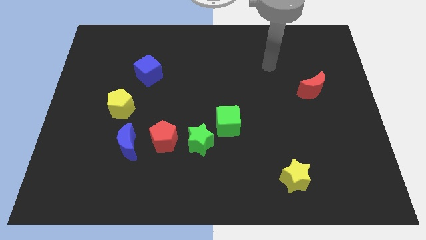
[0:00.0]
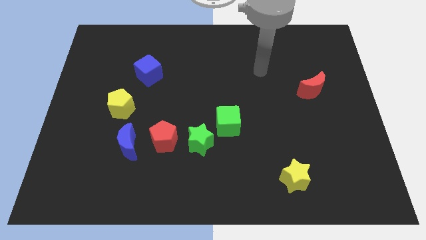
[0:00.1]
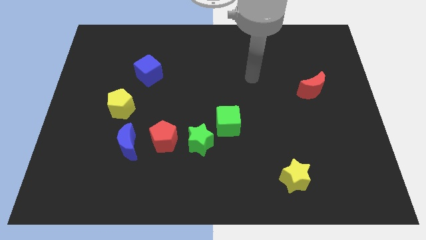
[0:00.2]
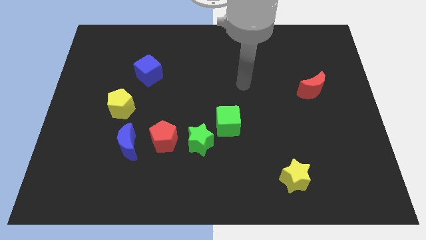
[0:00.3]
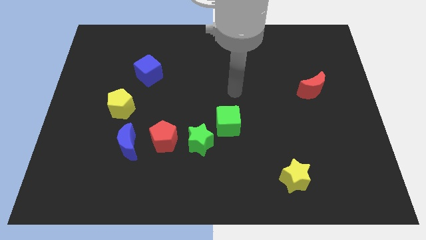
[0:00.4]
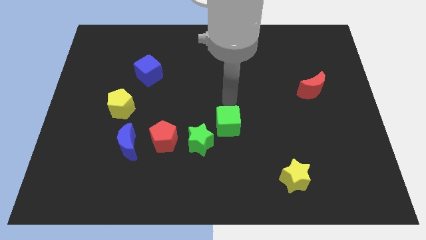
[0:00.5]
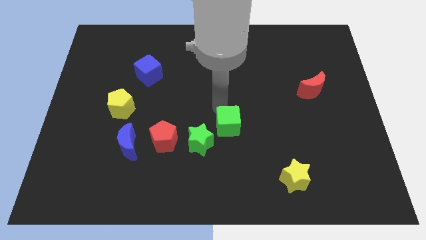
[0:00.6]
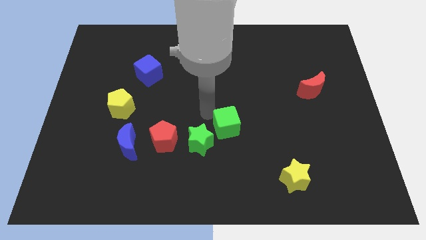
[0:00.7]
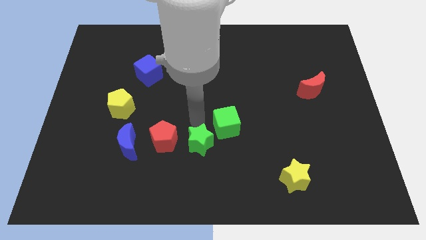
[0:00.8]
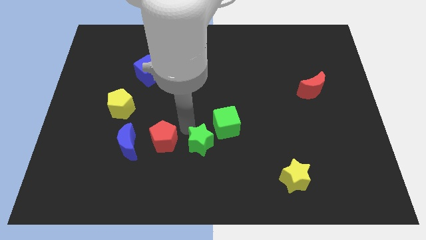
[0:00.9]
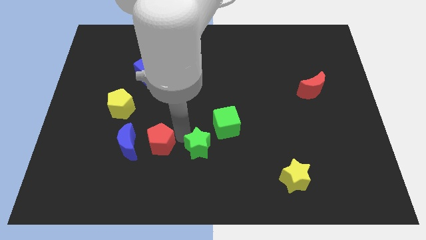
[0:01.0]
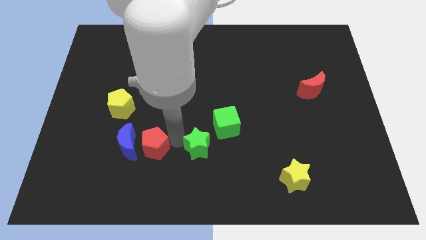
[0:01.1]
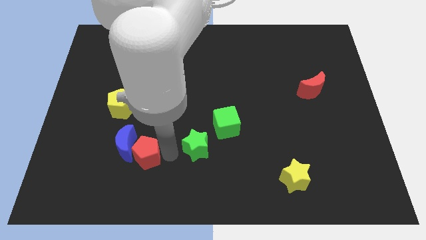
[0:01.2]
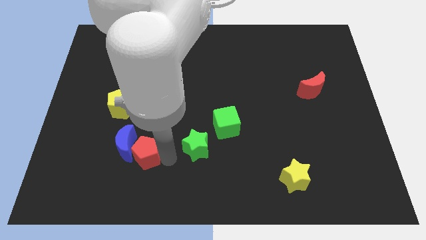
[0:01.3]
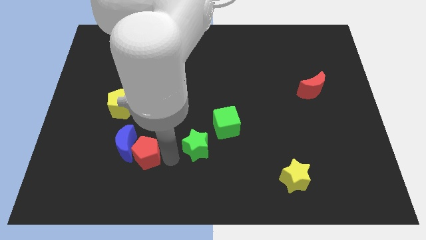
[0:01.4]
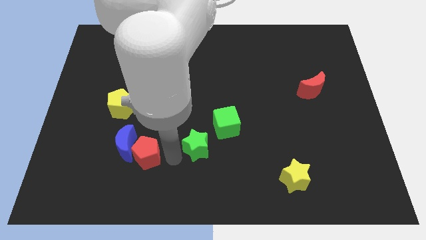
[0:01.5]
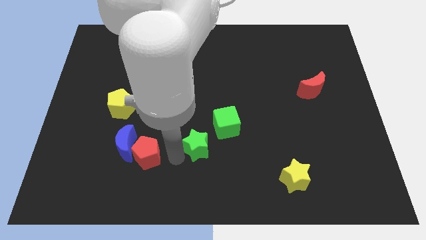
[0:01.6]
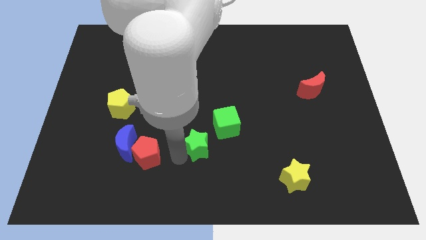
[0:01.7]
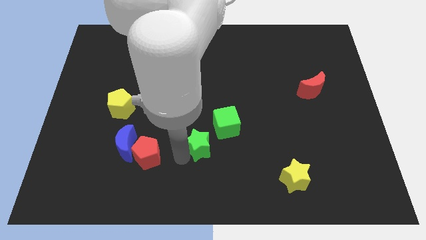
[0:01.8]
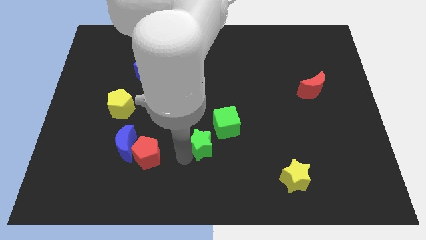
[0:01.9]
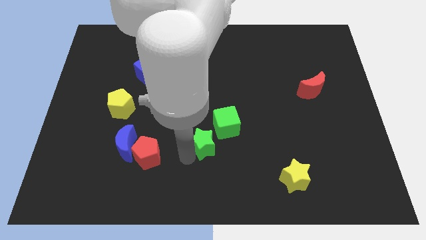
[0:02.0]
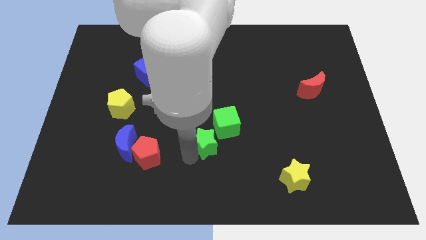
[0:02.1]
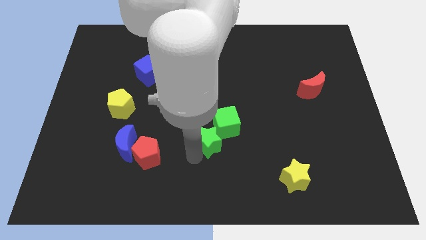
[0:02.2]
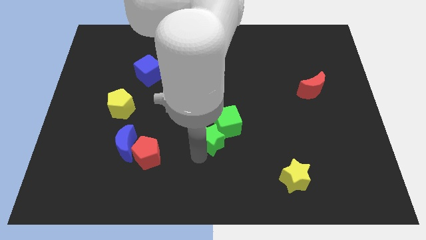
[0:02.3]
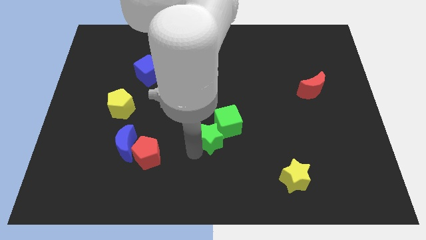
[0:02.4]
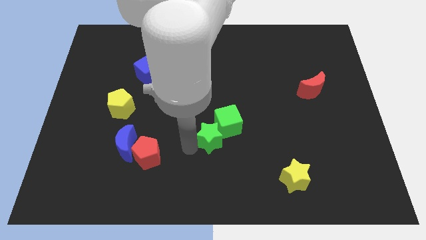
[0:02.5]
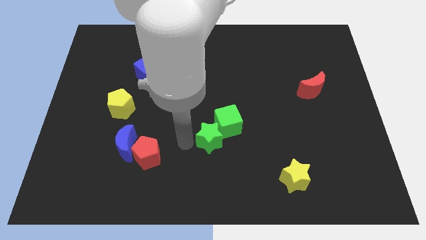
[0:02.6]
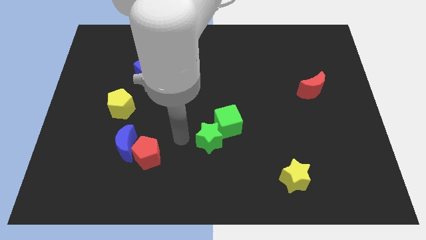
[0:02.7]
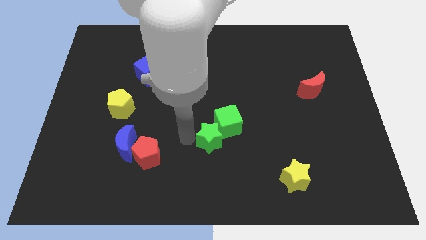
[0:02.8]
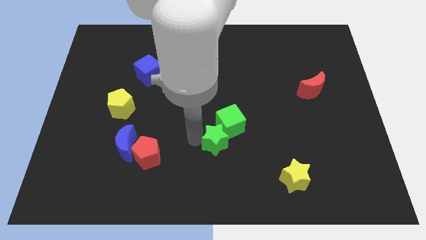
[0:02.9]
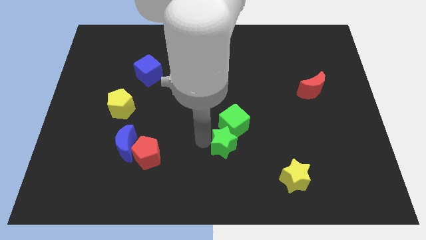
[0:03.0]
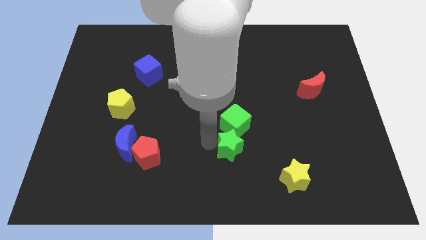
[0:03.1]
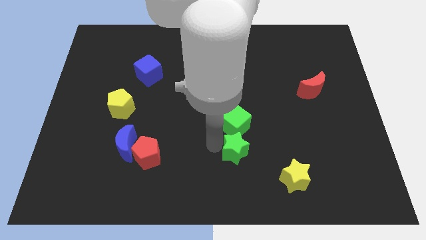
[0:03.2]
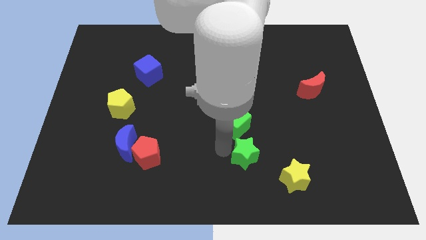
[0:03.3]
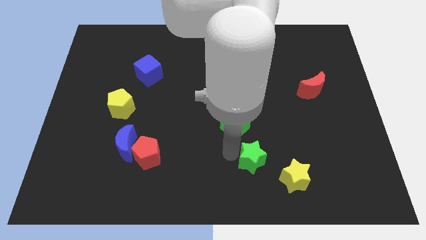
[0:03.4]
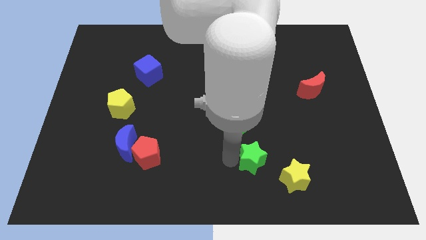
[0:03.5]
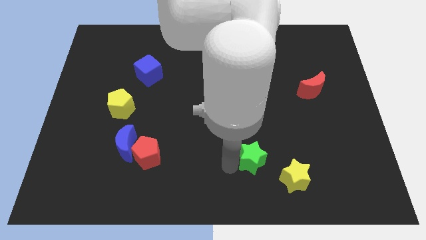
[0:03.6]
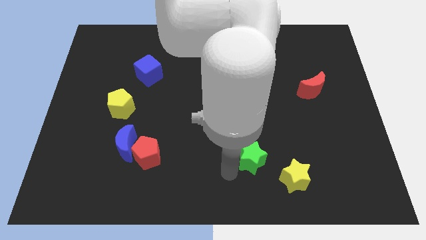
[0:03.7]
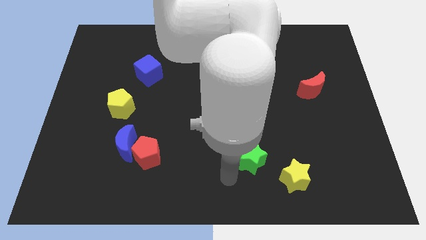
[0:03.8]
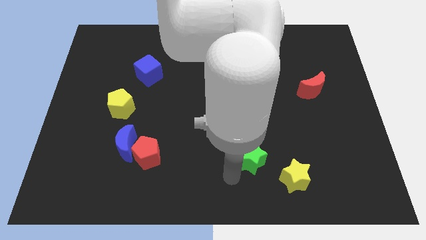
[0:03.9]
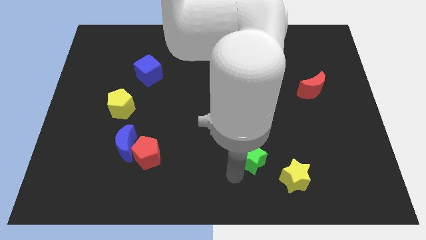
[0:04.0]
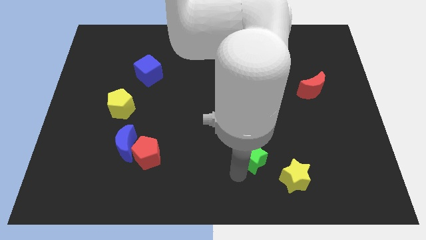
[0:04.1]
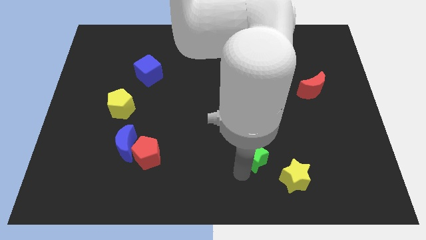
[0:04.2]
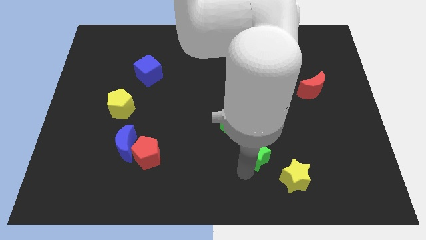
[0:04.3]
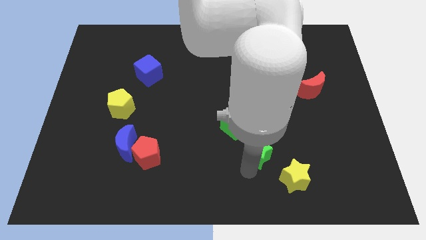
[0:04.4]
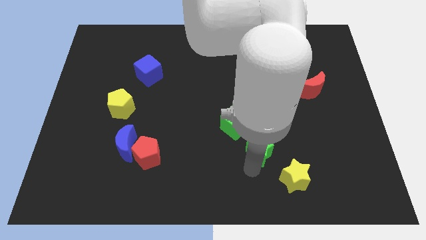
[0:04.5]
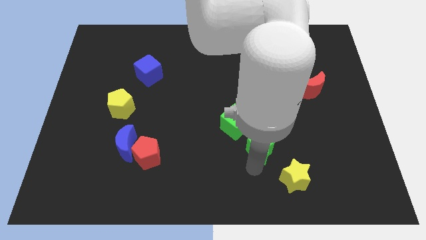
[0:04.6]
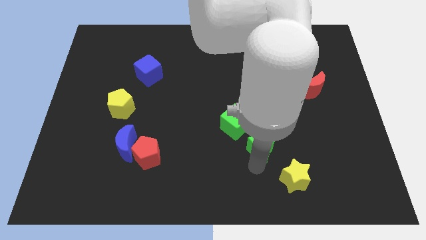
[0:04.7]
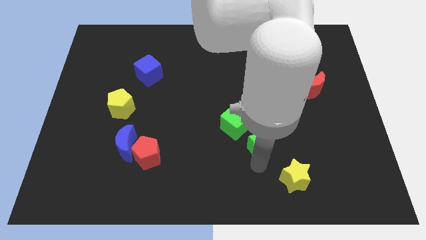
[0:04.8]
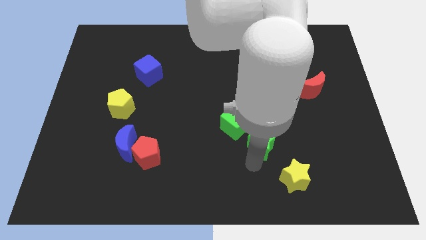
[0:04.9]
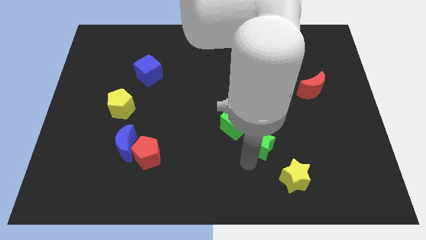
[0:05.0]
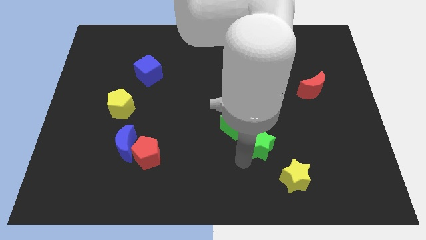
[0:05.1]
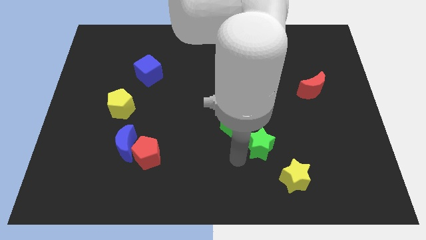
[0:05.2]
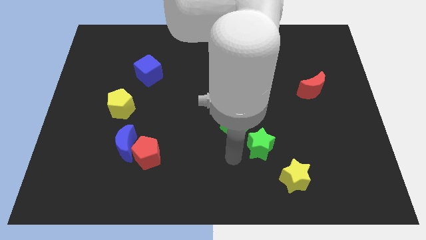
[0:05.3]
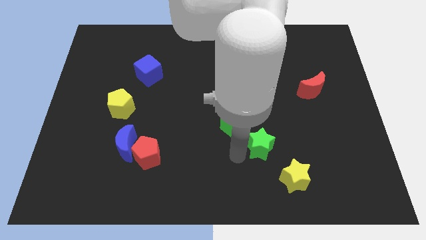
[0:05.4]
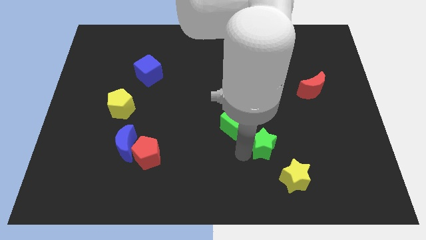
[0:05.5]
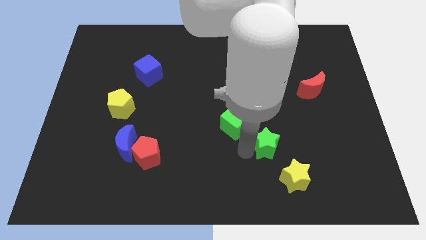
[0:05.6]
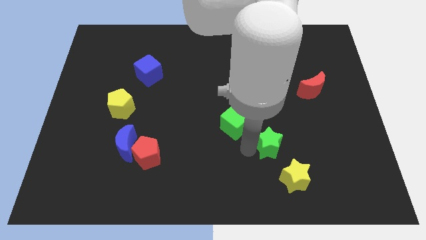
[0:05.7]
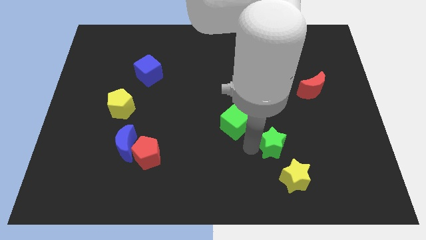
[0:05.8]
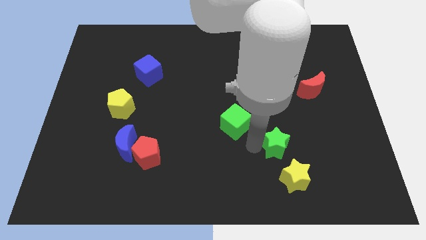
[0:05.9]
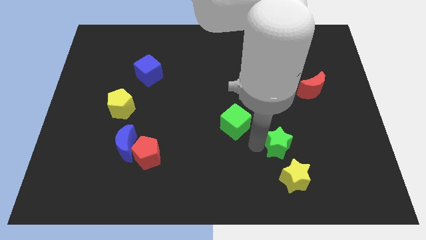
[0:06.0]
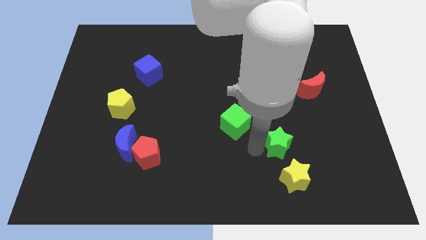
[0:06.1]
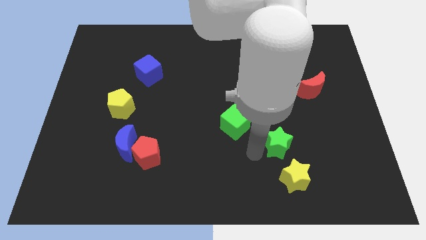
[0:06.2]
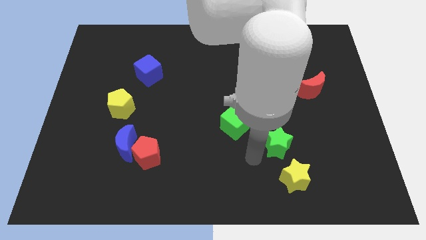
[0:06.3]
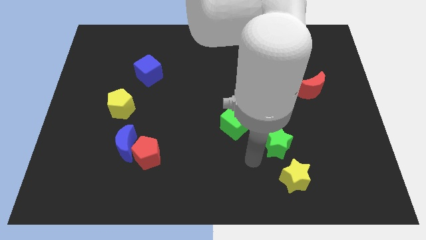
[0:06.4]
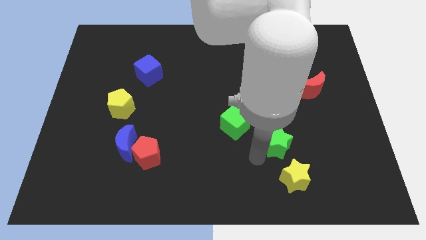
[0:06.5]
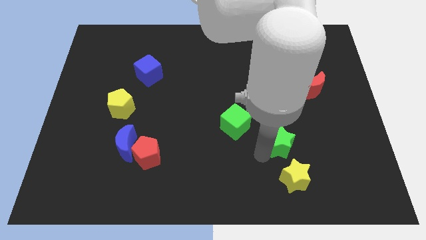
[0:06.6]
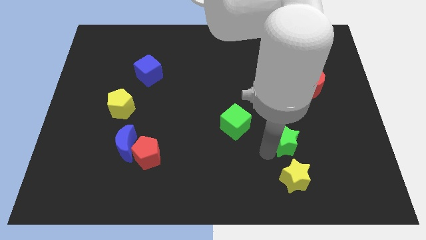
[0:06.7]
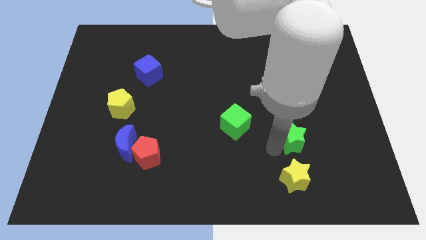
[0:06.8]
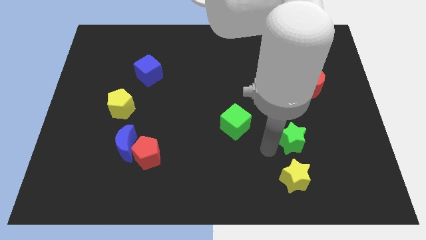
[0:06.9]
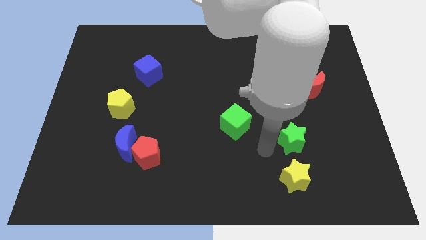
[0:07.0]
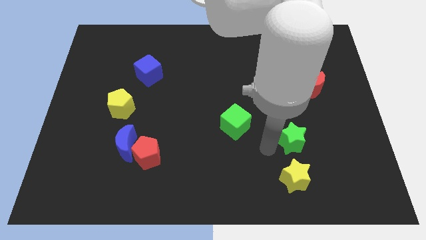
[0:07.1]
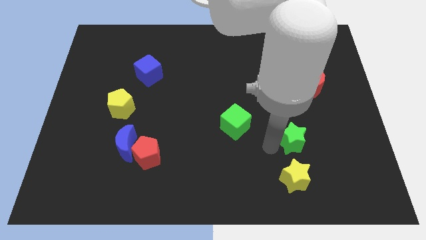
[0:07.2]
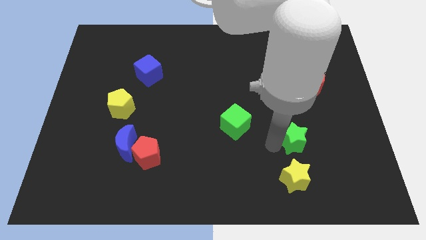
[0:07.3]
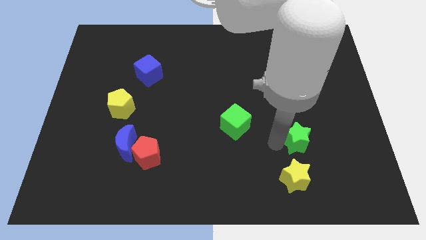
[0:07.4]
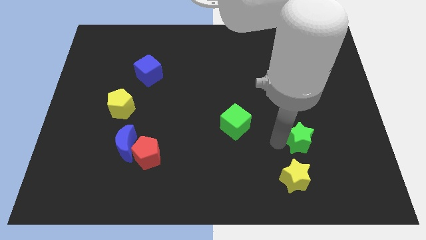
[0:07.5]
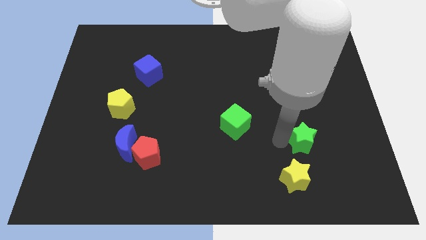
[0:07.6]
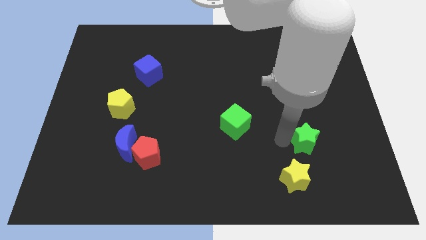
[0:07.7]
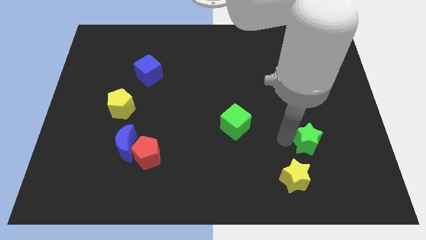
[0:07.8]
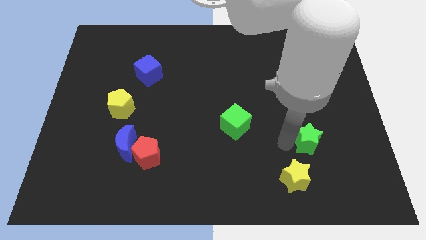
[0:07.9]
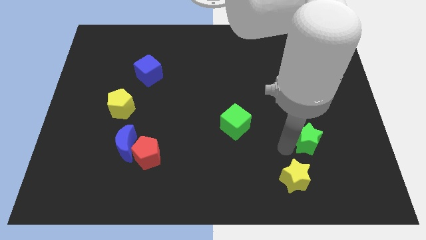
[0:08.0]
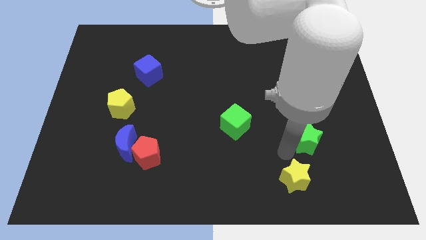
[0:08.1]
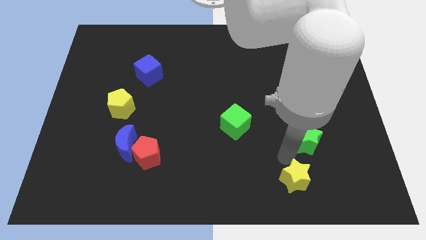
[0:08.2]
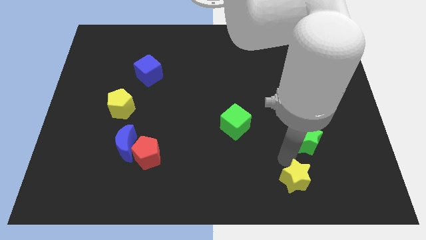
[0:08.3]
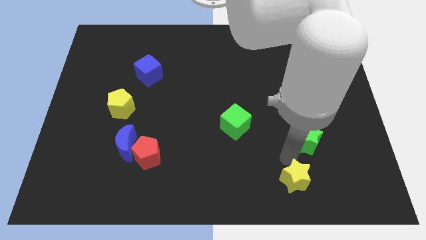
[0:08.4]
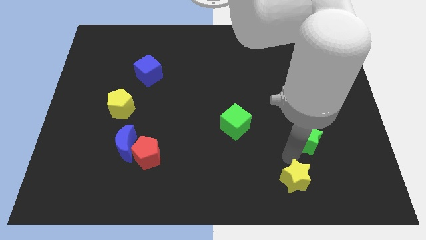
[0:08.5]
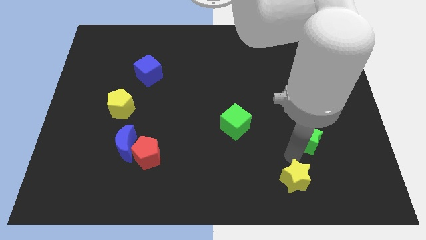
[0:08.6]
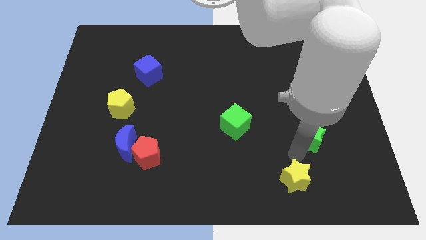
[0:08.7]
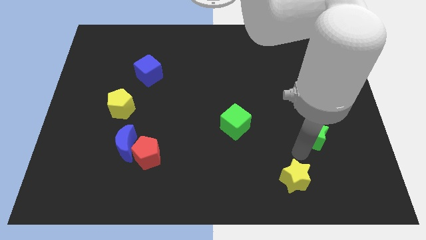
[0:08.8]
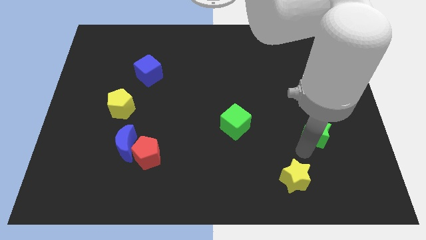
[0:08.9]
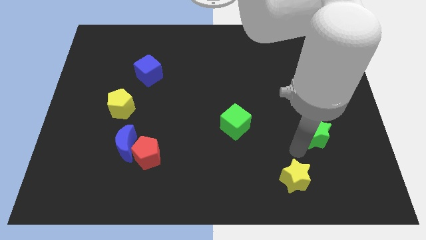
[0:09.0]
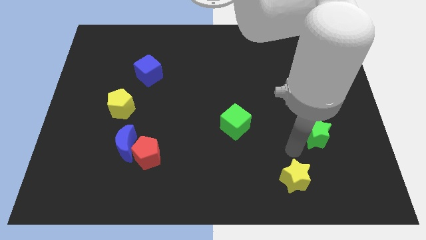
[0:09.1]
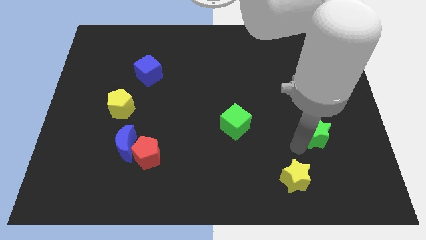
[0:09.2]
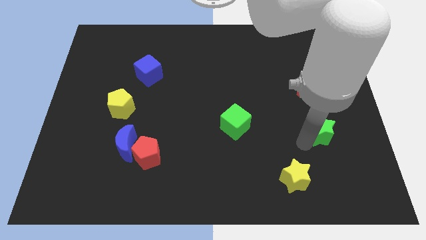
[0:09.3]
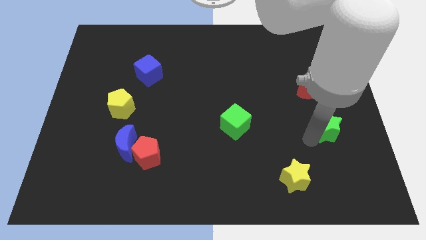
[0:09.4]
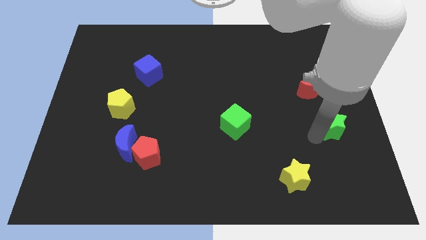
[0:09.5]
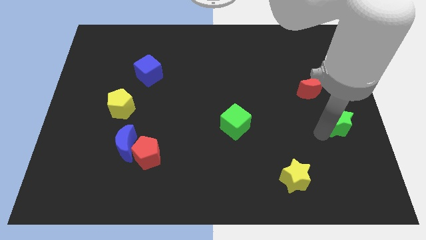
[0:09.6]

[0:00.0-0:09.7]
push the green star to the right side
